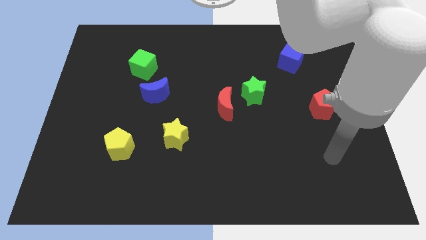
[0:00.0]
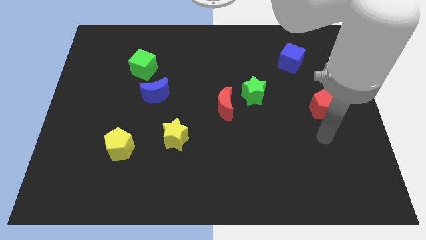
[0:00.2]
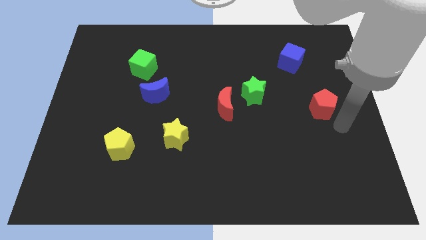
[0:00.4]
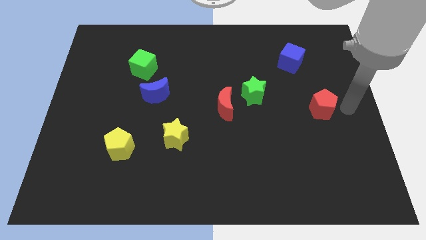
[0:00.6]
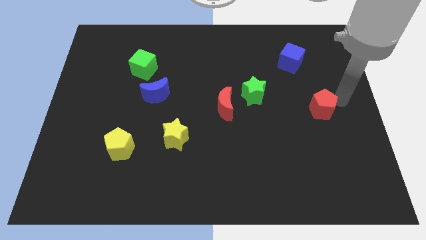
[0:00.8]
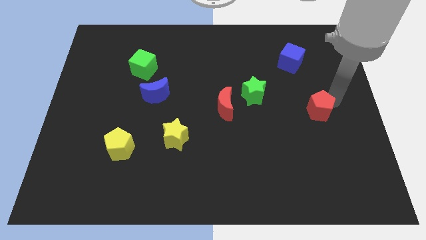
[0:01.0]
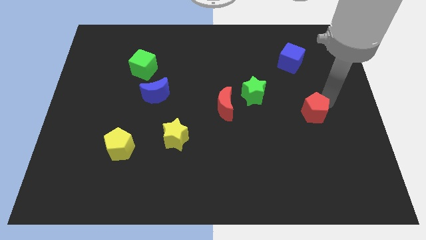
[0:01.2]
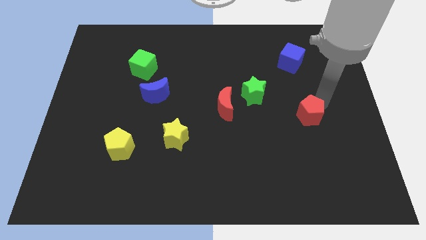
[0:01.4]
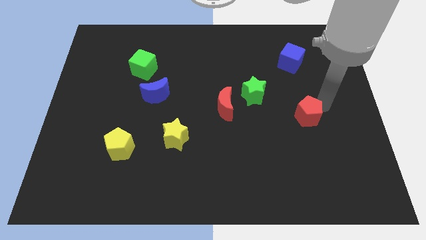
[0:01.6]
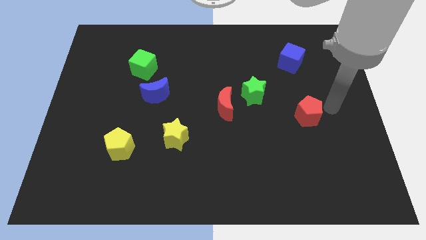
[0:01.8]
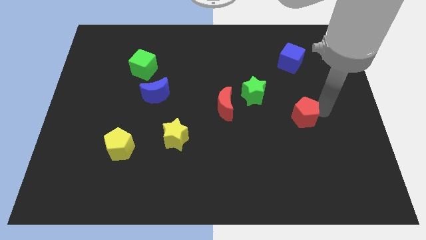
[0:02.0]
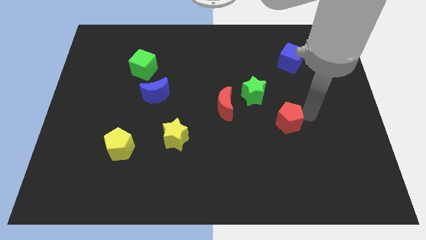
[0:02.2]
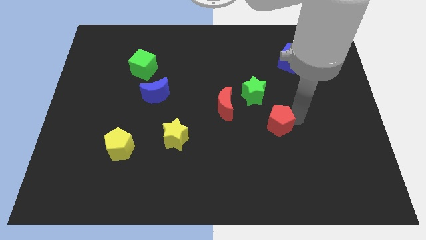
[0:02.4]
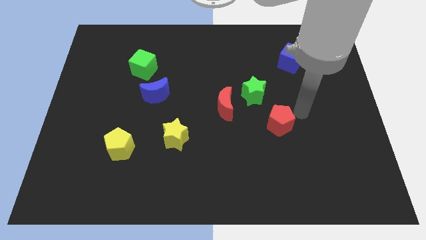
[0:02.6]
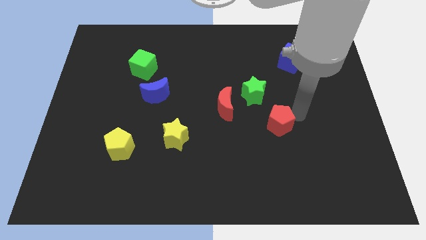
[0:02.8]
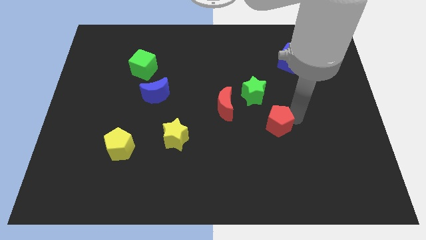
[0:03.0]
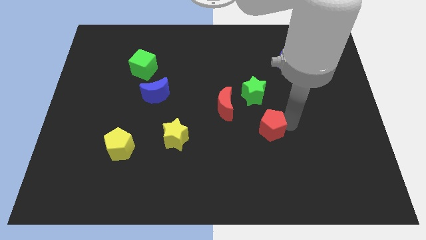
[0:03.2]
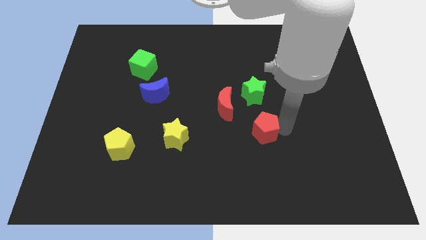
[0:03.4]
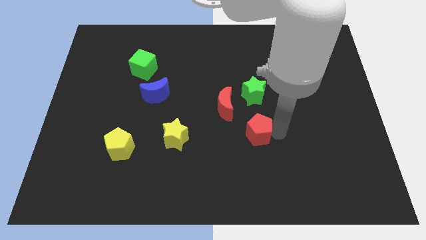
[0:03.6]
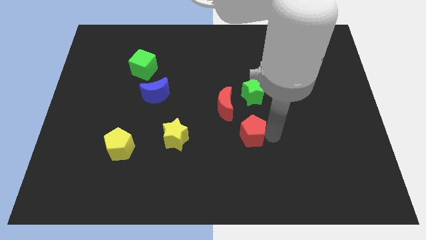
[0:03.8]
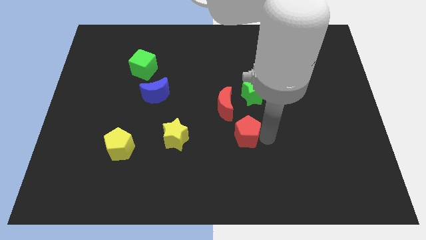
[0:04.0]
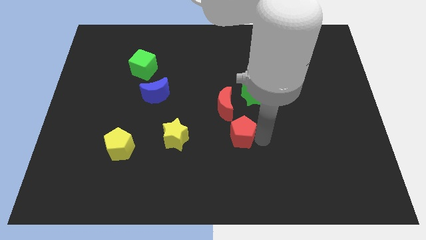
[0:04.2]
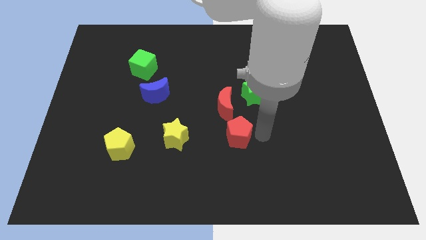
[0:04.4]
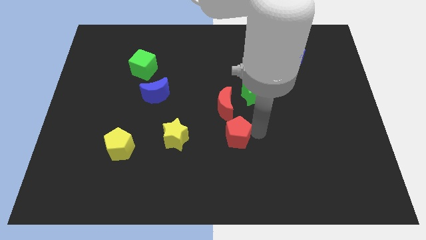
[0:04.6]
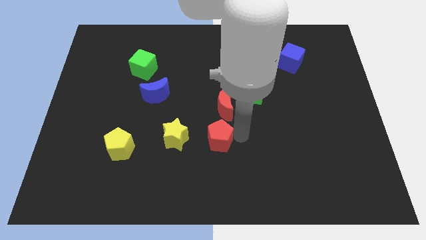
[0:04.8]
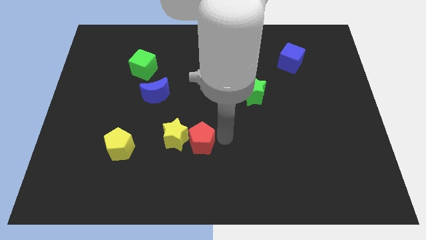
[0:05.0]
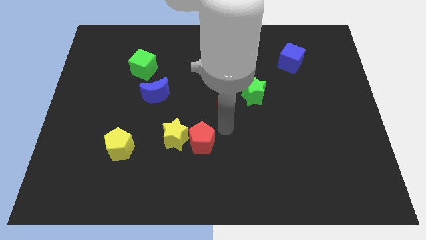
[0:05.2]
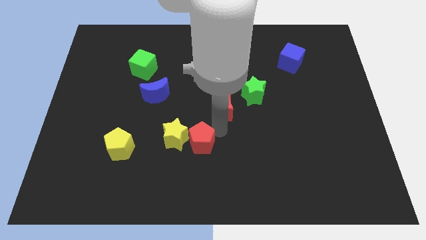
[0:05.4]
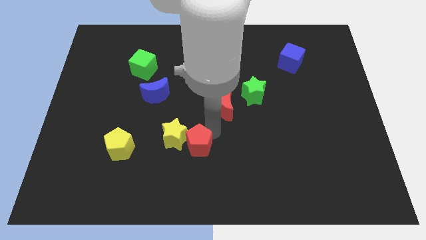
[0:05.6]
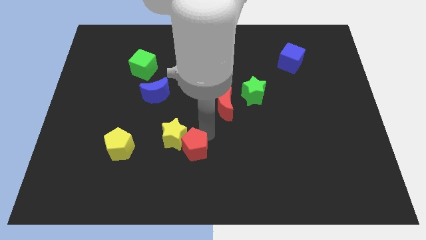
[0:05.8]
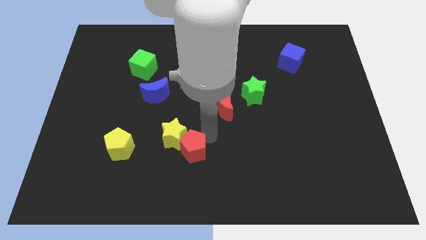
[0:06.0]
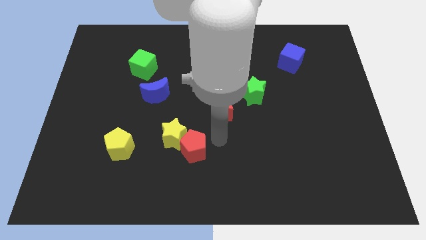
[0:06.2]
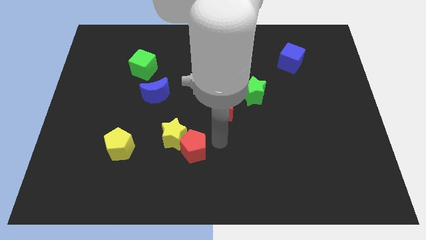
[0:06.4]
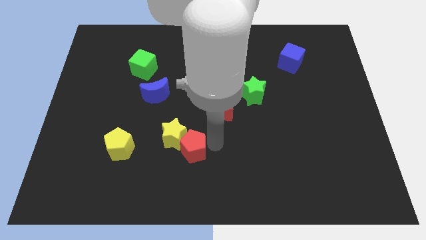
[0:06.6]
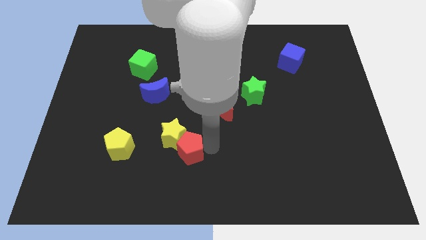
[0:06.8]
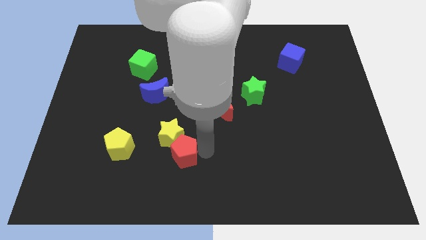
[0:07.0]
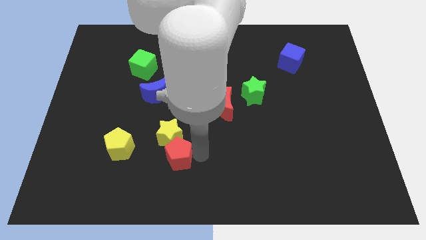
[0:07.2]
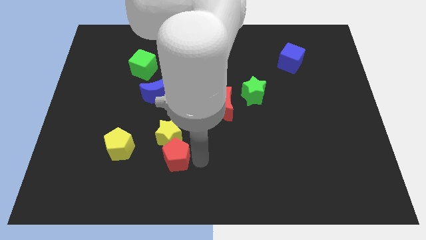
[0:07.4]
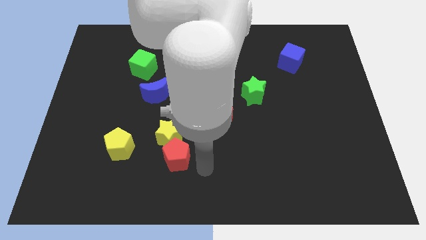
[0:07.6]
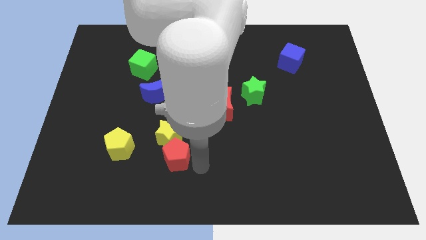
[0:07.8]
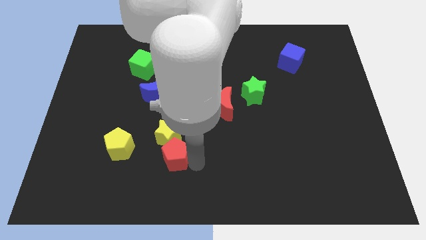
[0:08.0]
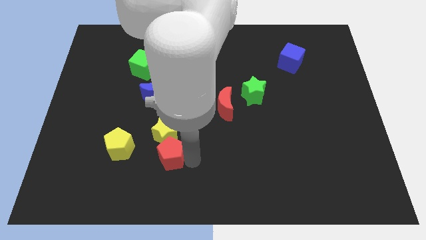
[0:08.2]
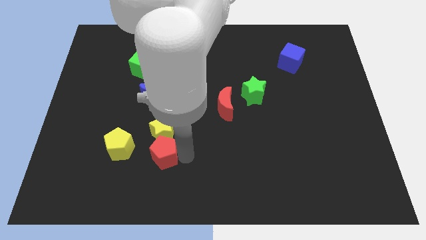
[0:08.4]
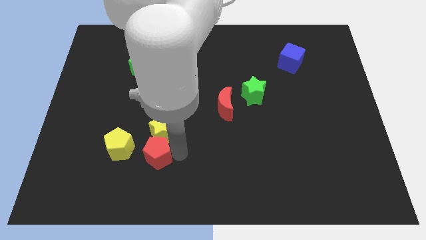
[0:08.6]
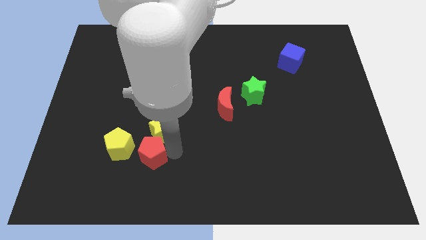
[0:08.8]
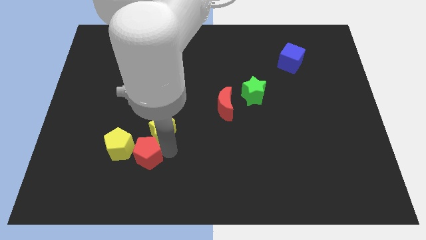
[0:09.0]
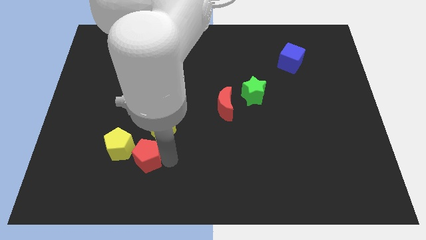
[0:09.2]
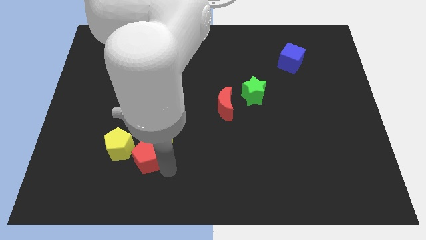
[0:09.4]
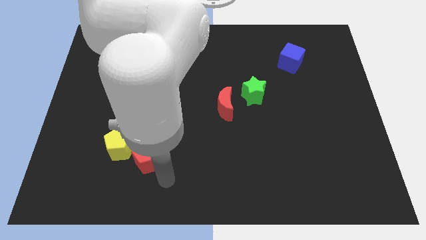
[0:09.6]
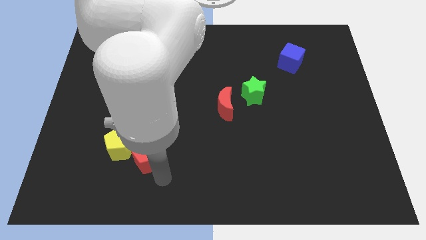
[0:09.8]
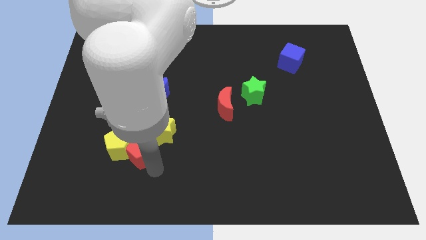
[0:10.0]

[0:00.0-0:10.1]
slide the red pentagon close to the yellow pentagon
